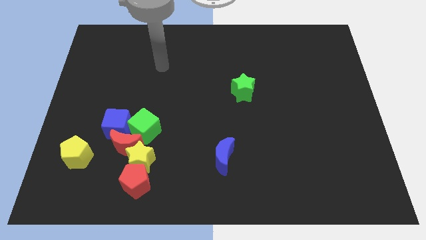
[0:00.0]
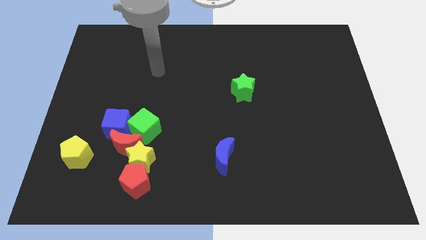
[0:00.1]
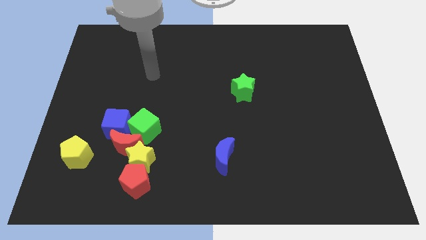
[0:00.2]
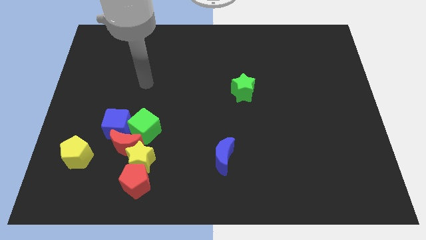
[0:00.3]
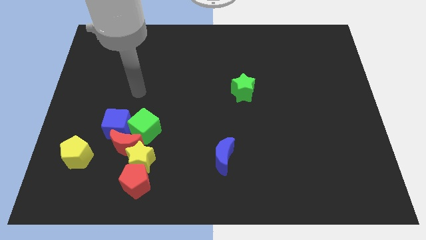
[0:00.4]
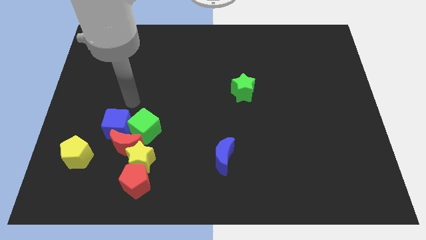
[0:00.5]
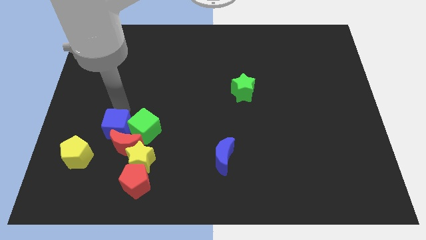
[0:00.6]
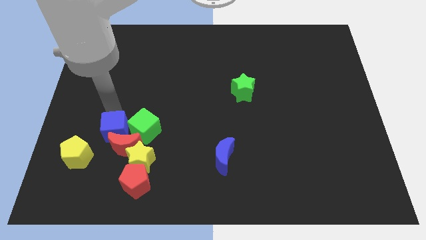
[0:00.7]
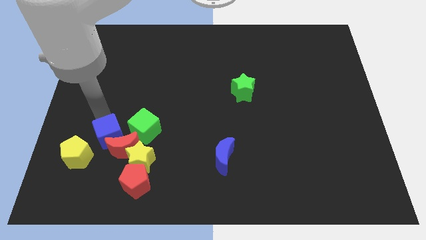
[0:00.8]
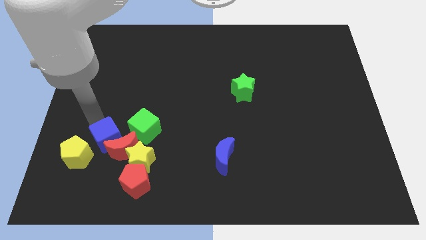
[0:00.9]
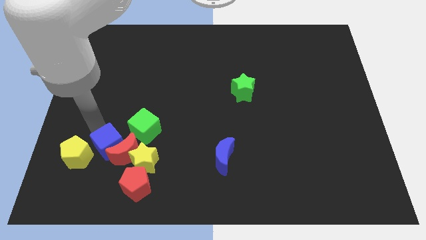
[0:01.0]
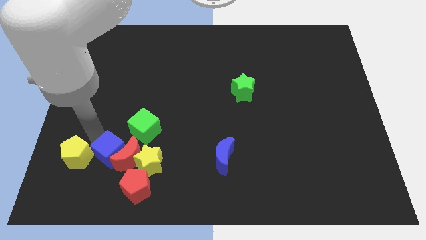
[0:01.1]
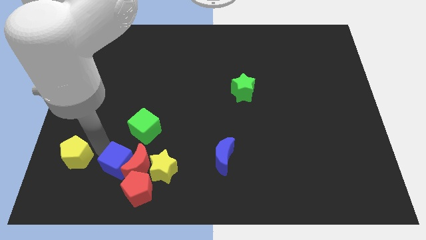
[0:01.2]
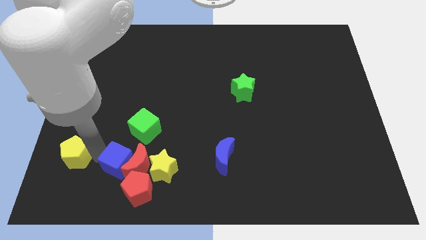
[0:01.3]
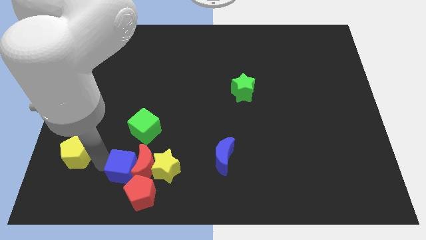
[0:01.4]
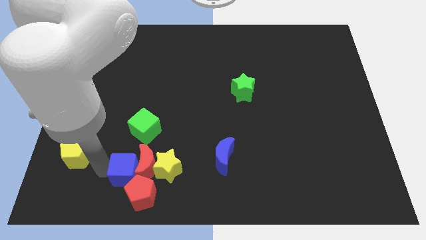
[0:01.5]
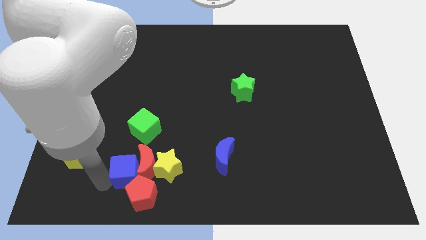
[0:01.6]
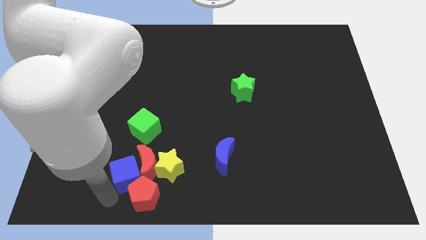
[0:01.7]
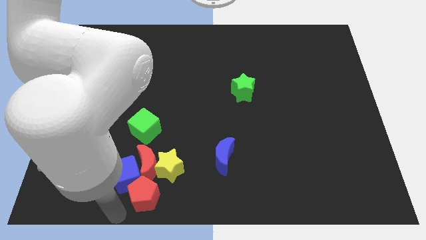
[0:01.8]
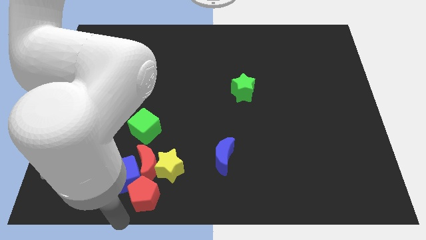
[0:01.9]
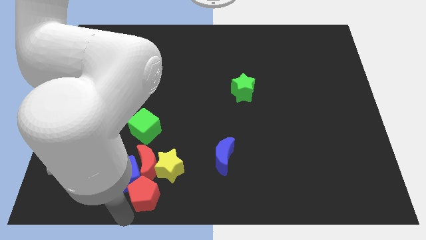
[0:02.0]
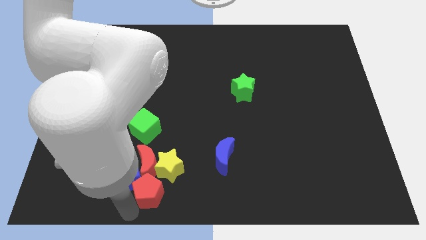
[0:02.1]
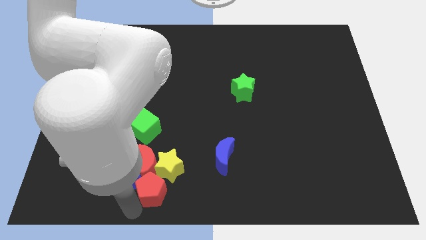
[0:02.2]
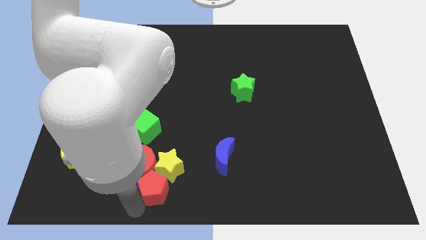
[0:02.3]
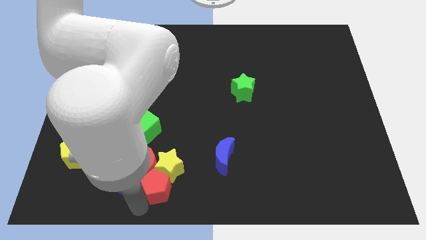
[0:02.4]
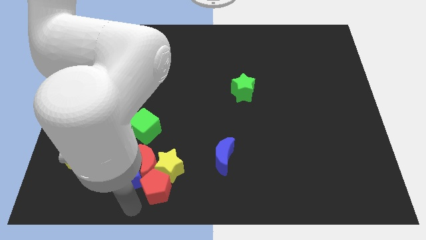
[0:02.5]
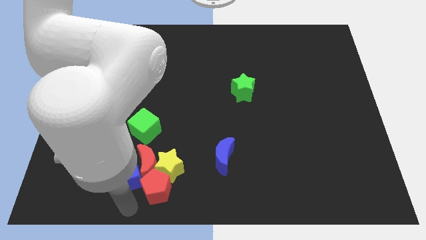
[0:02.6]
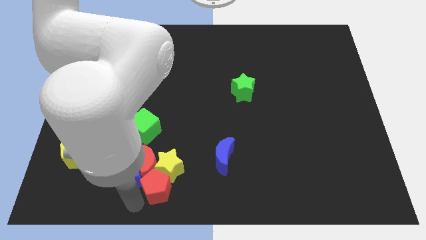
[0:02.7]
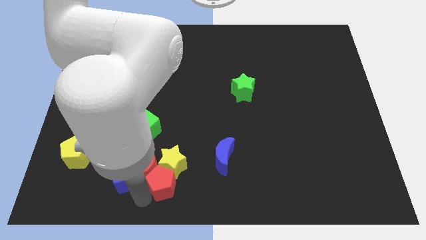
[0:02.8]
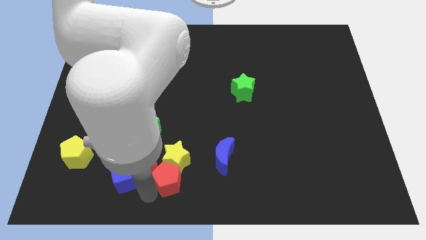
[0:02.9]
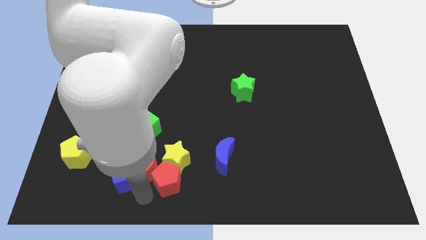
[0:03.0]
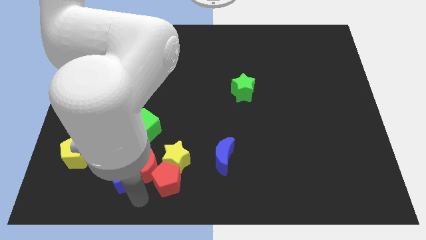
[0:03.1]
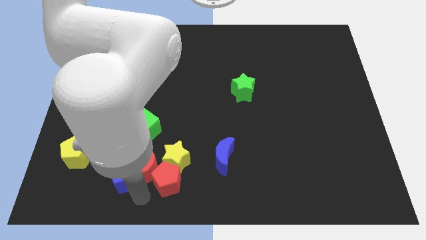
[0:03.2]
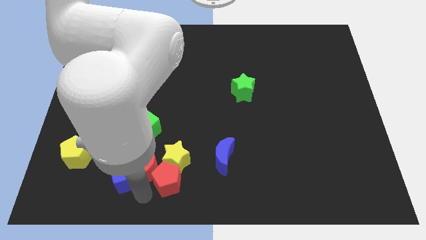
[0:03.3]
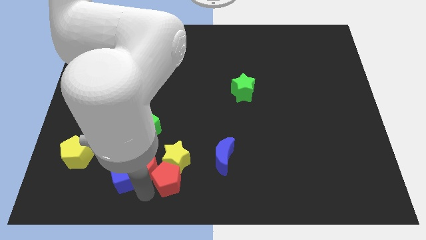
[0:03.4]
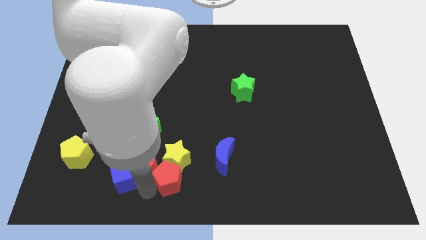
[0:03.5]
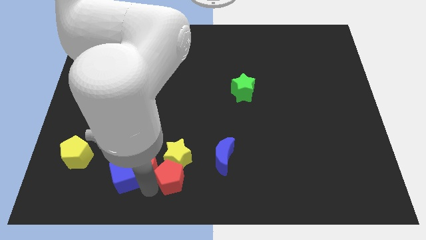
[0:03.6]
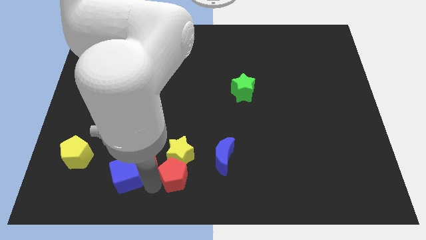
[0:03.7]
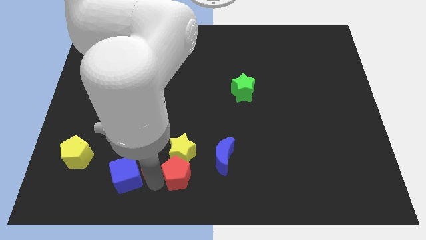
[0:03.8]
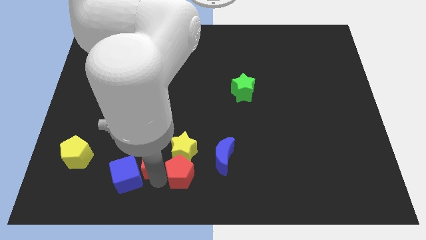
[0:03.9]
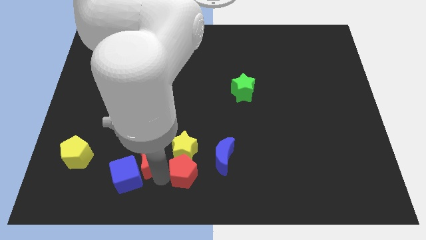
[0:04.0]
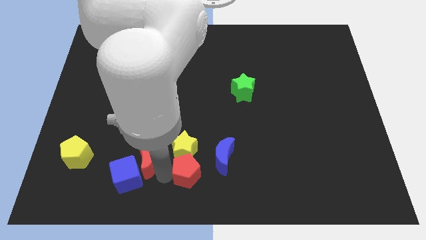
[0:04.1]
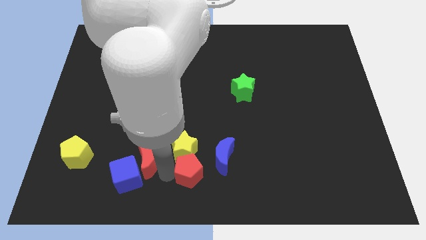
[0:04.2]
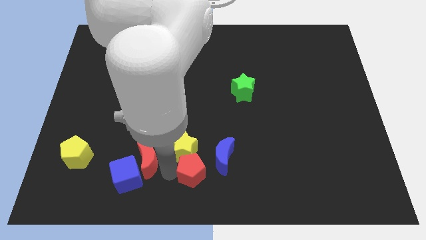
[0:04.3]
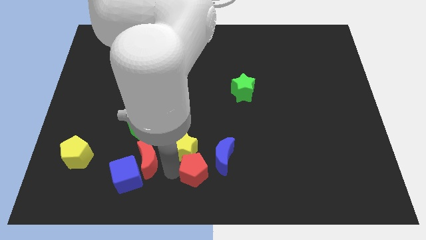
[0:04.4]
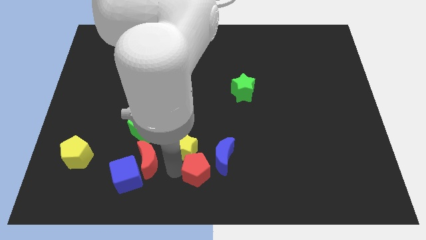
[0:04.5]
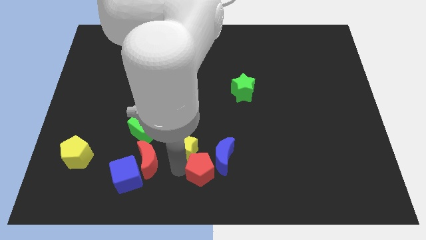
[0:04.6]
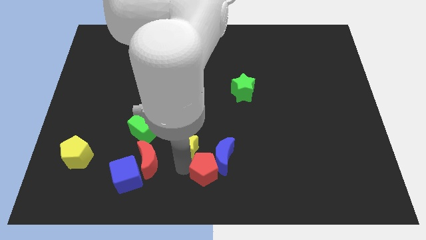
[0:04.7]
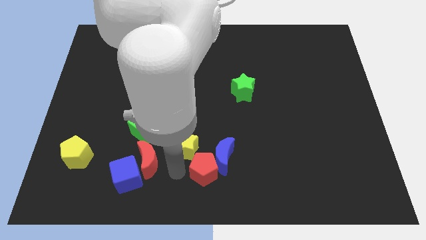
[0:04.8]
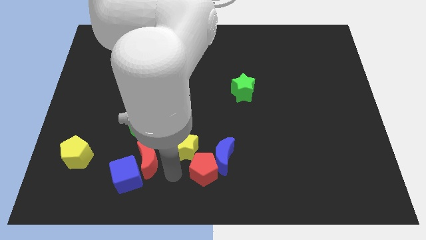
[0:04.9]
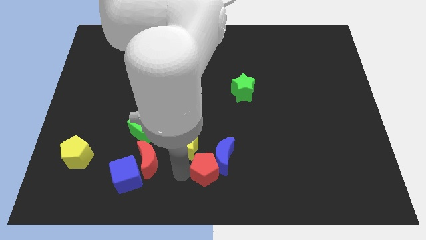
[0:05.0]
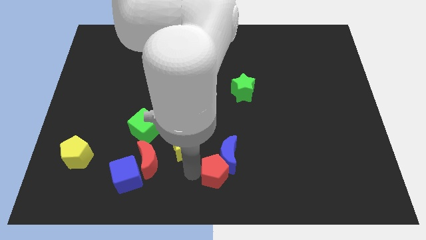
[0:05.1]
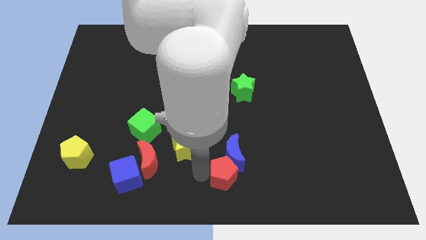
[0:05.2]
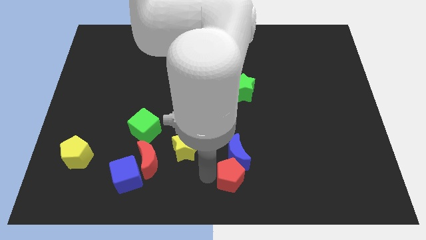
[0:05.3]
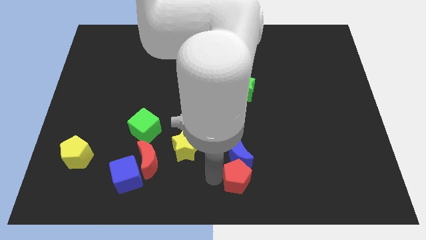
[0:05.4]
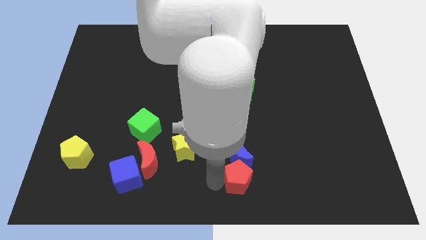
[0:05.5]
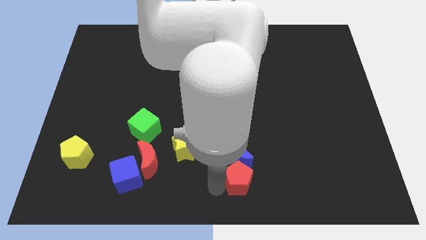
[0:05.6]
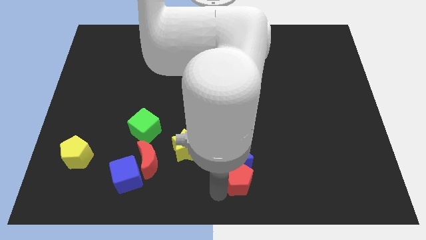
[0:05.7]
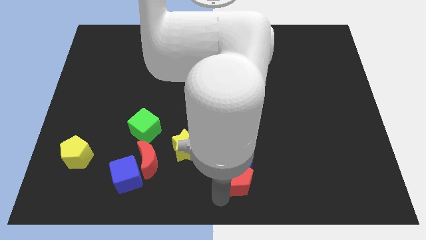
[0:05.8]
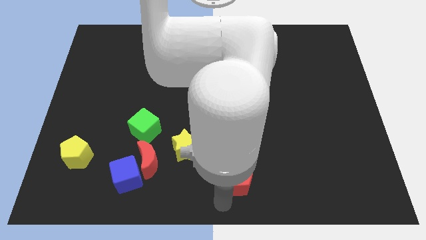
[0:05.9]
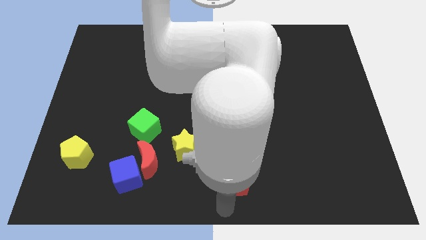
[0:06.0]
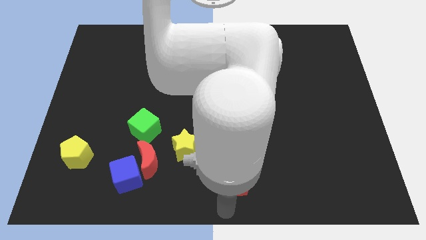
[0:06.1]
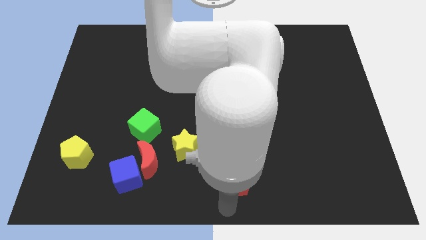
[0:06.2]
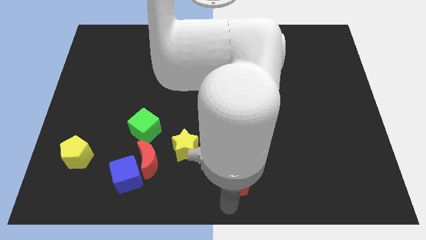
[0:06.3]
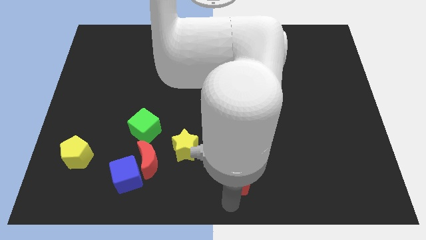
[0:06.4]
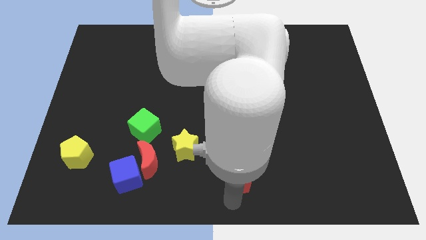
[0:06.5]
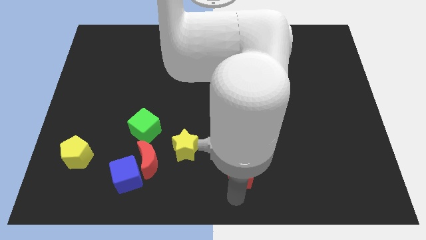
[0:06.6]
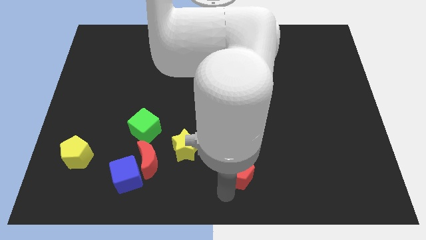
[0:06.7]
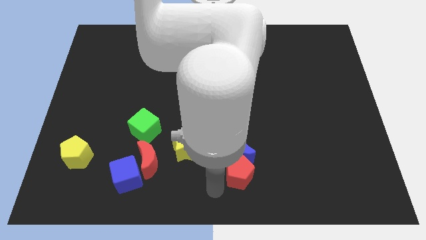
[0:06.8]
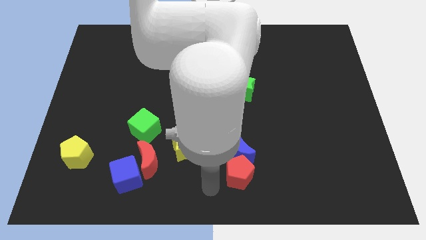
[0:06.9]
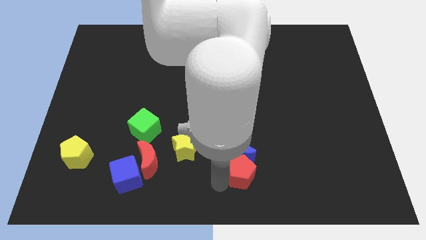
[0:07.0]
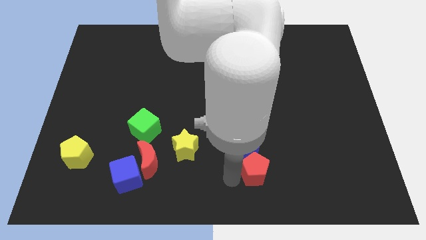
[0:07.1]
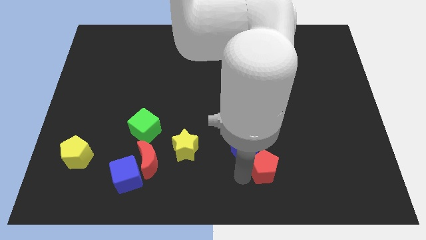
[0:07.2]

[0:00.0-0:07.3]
put the red pentagon just right of the blue moon

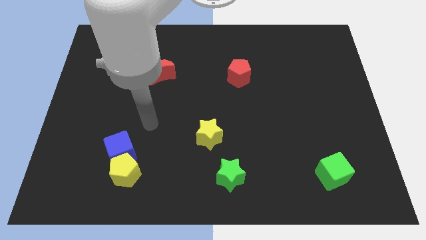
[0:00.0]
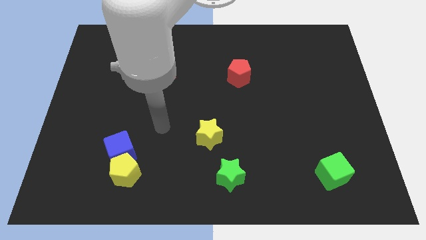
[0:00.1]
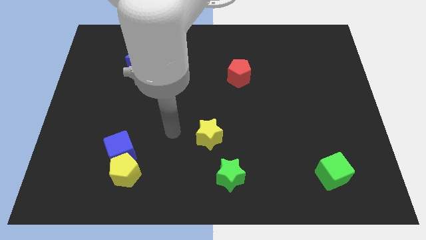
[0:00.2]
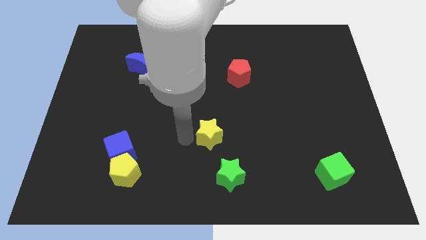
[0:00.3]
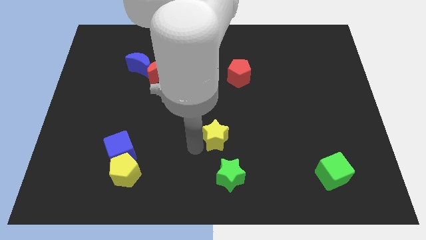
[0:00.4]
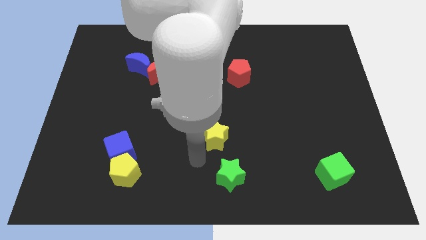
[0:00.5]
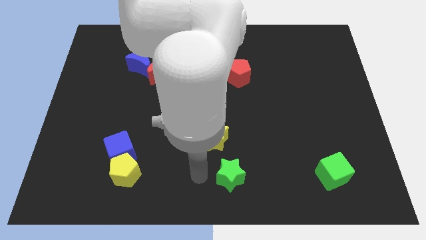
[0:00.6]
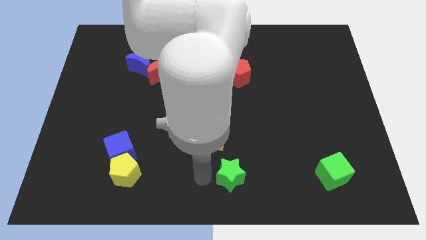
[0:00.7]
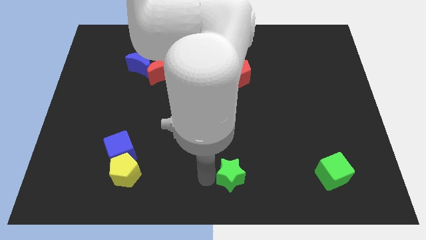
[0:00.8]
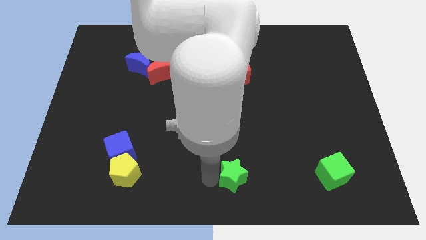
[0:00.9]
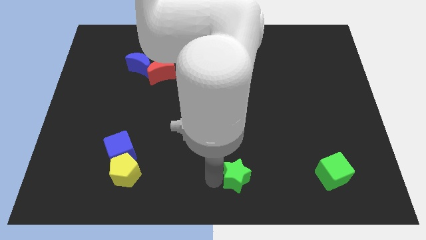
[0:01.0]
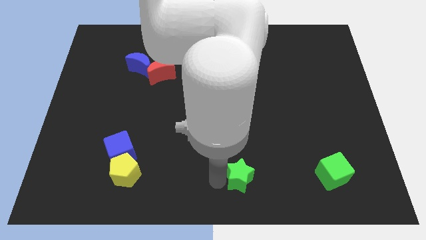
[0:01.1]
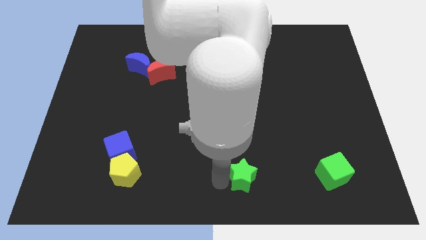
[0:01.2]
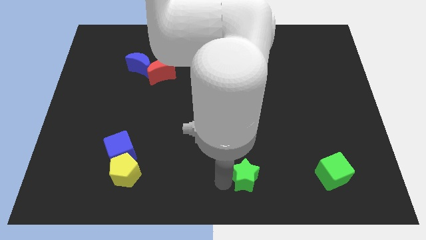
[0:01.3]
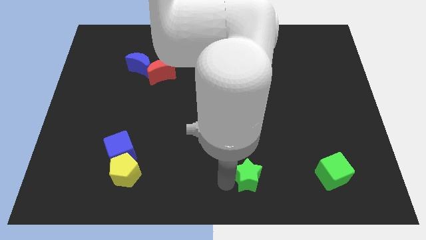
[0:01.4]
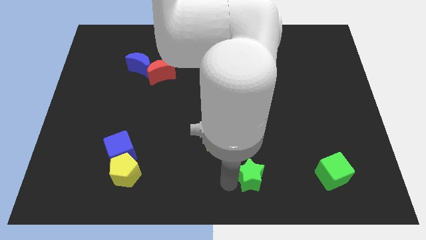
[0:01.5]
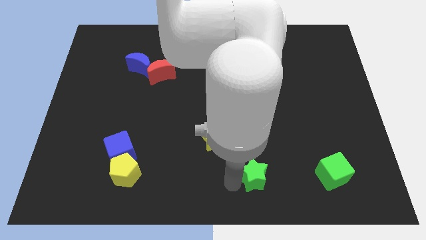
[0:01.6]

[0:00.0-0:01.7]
put the green star to the left of the green cube
